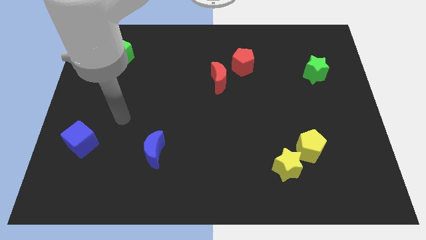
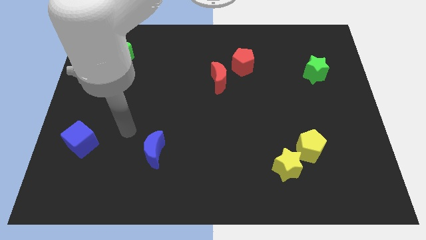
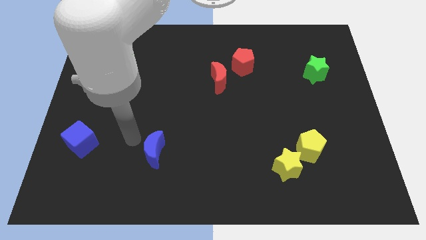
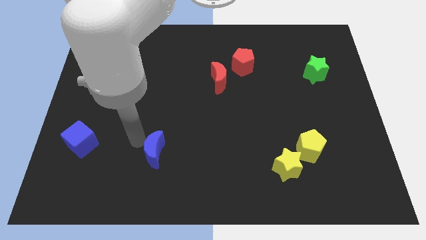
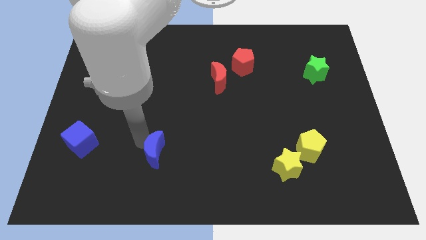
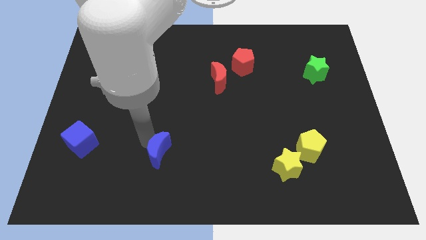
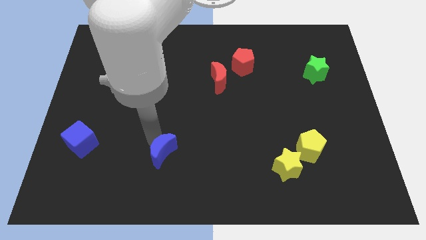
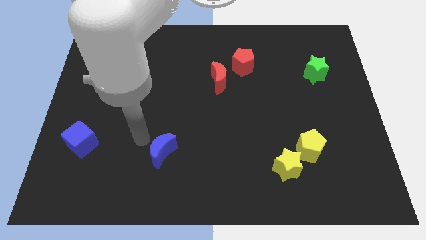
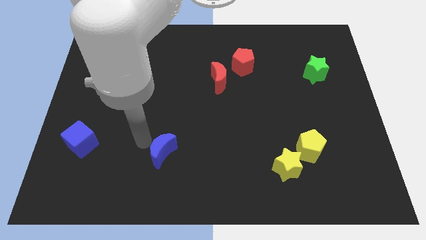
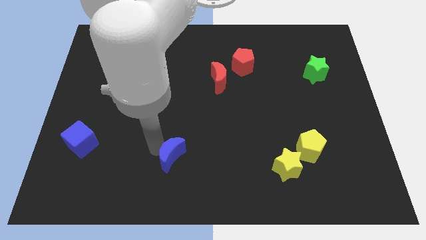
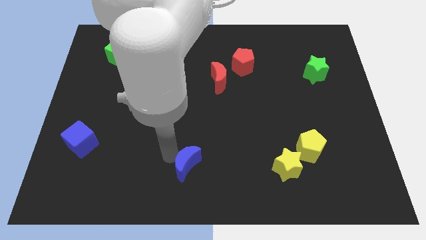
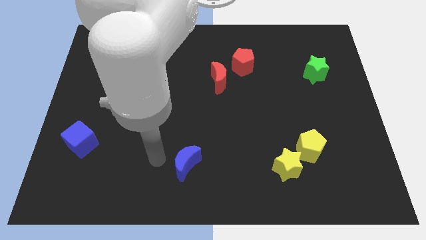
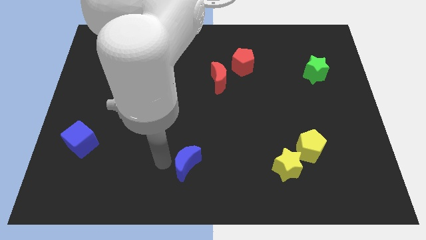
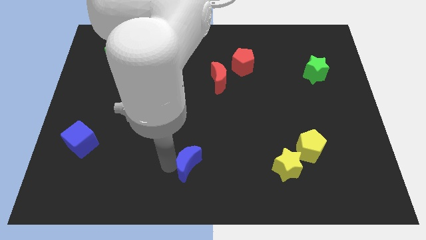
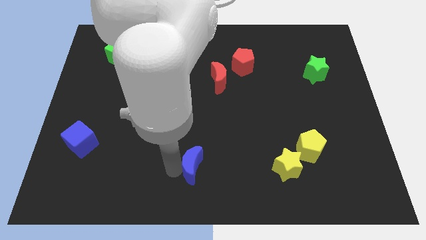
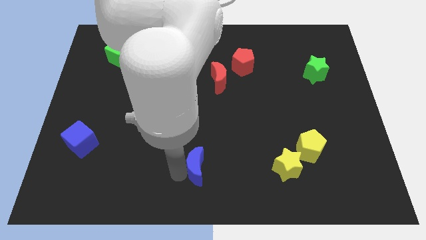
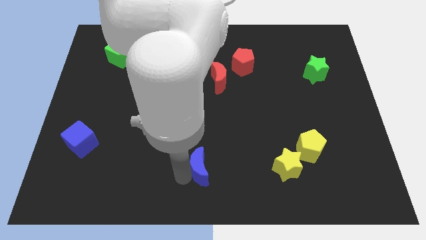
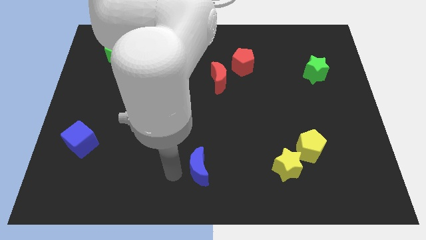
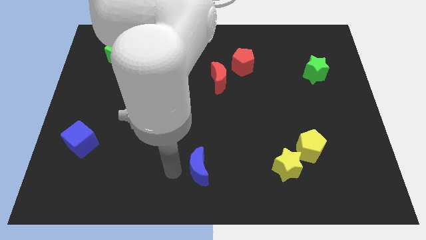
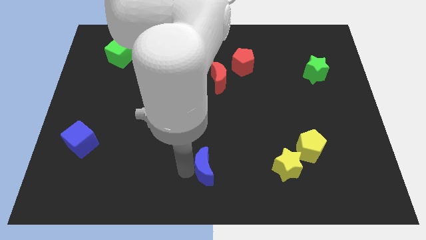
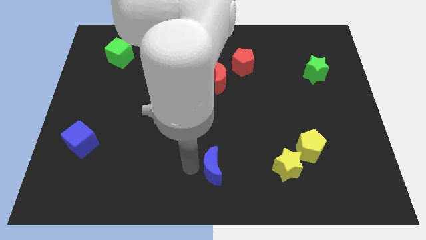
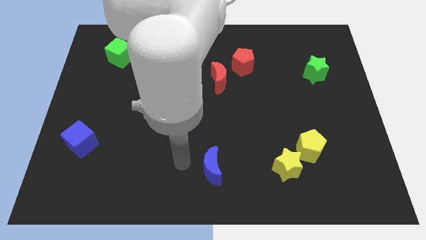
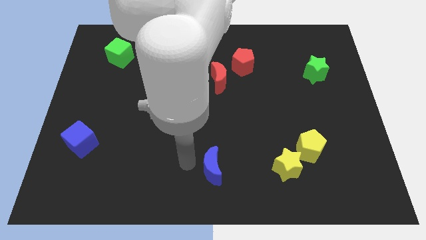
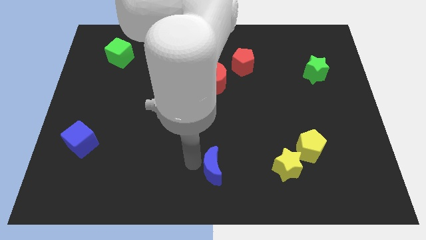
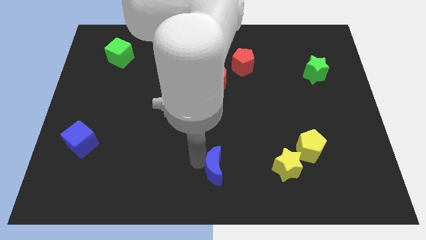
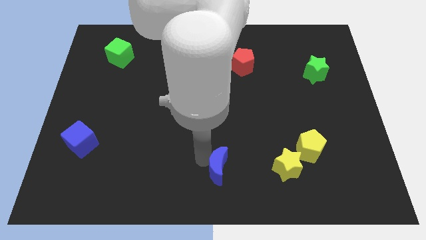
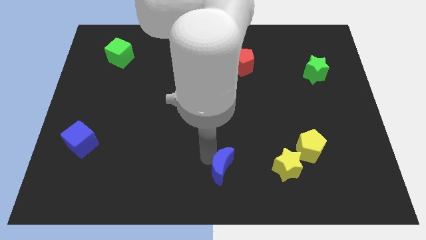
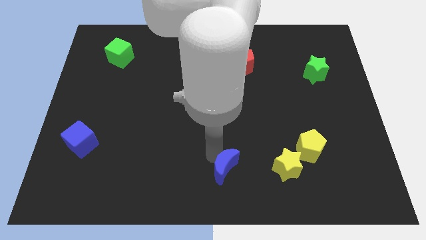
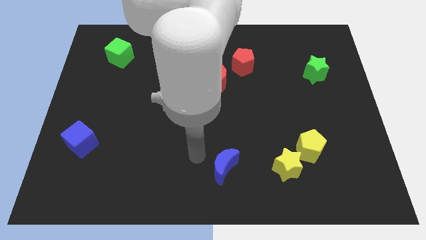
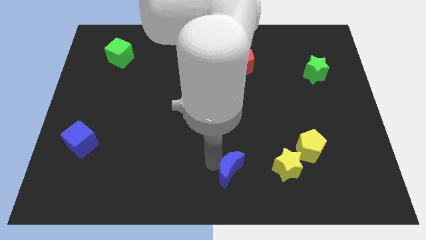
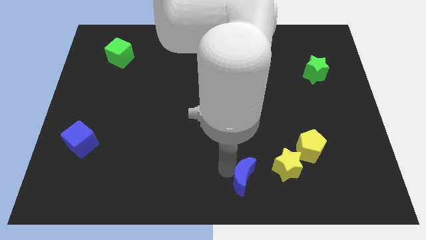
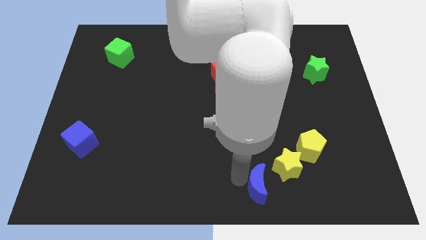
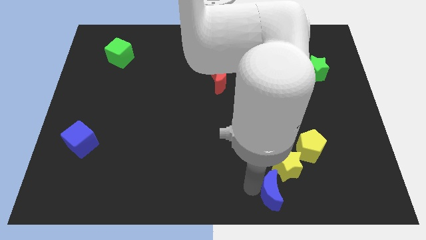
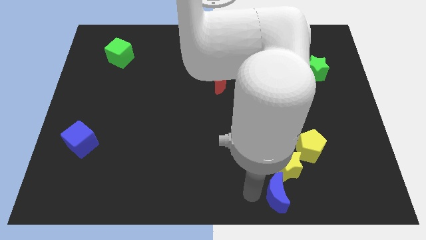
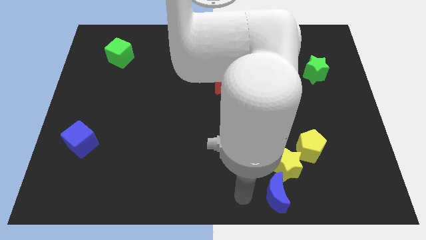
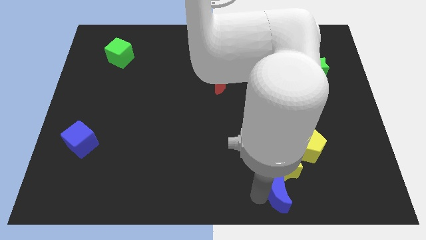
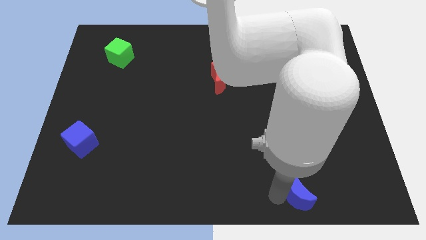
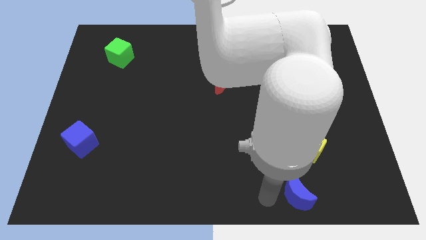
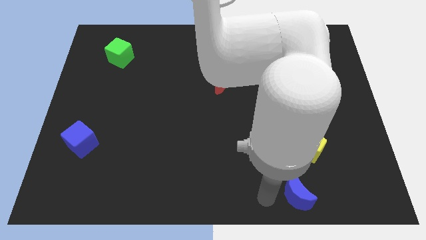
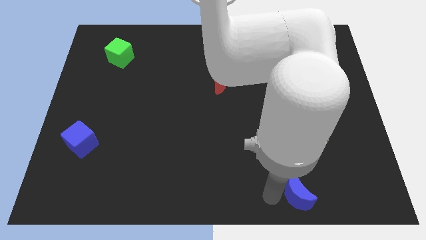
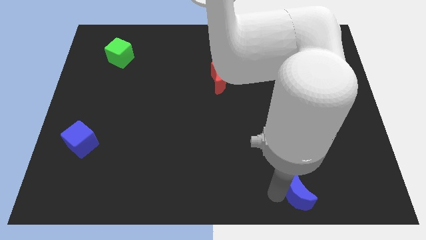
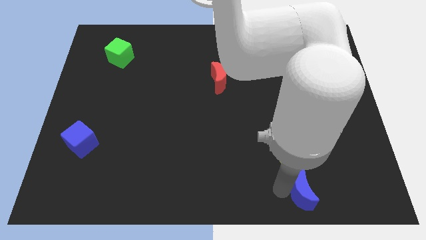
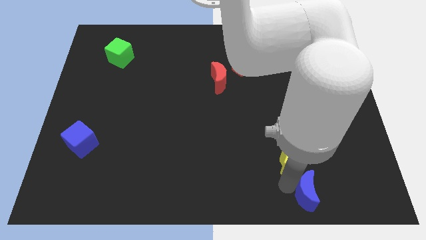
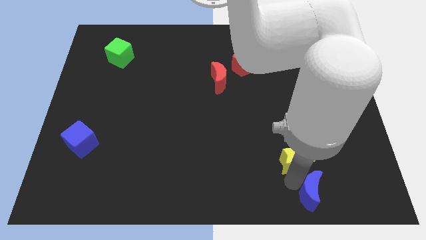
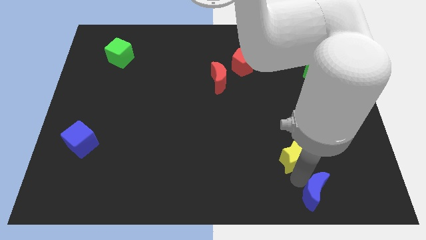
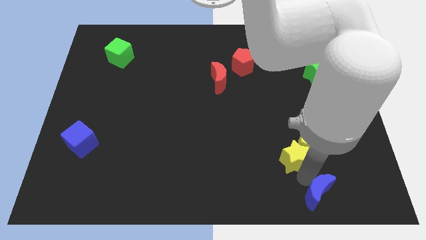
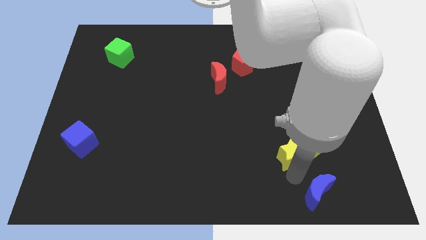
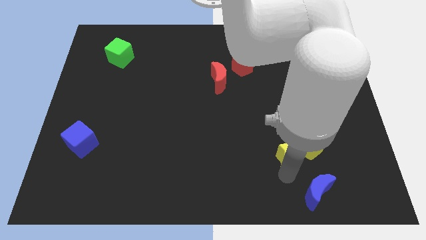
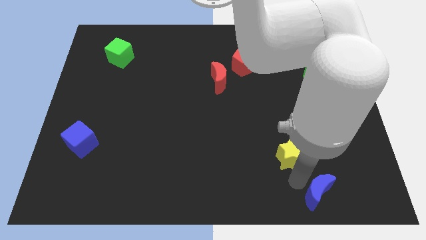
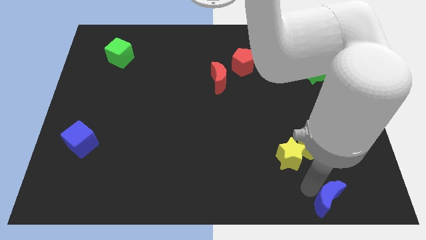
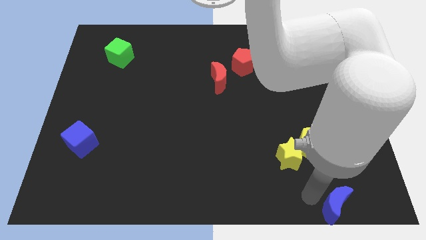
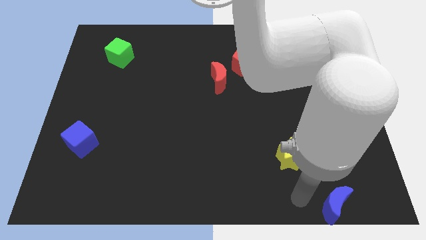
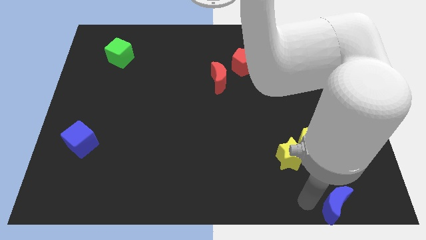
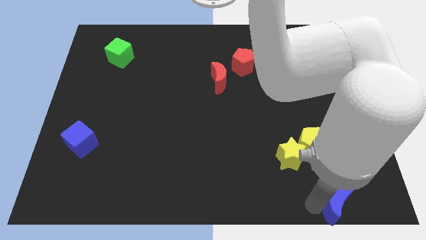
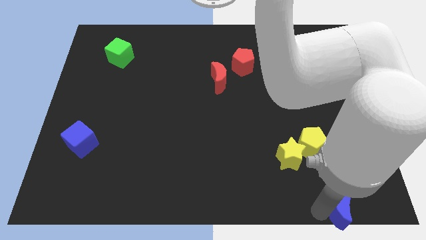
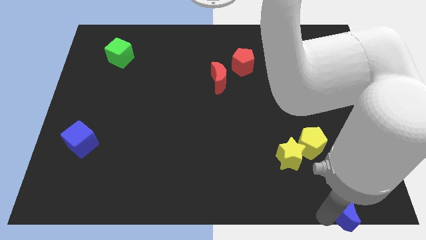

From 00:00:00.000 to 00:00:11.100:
move the blue moon to the bottom right corner
